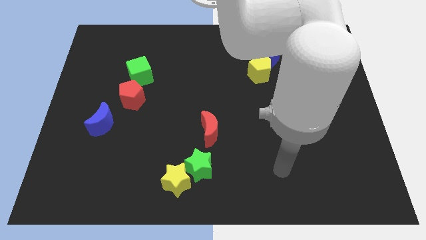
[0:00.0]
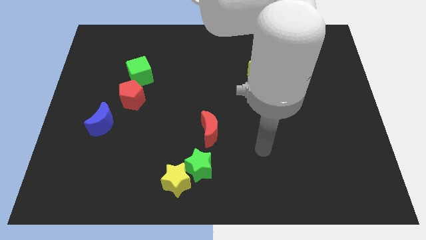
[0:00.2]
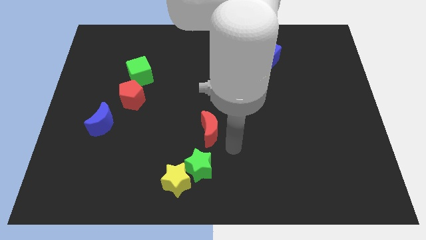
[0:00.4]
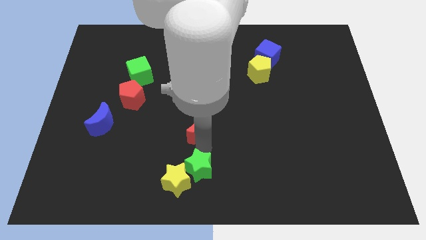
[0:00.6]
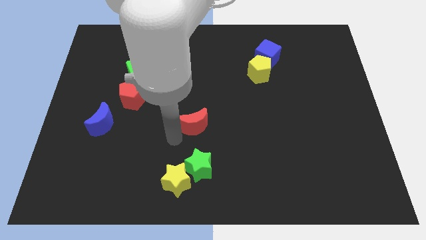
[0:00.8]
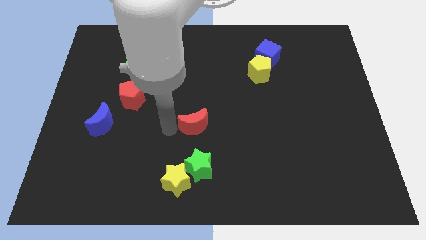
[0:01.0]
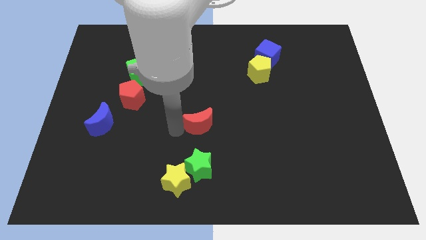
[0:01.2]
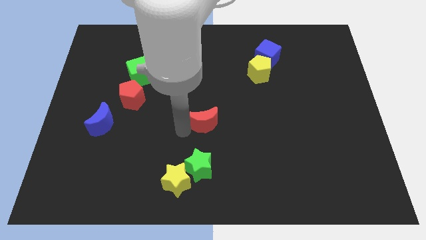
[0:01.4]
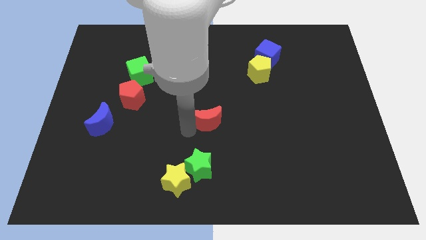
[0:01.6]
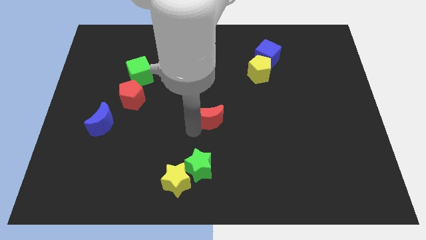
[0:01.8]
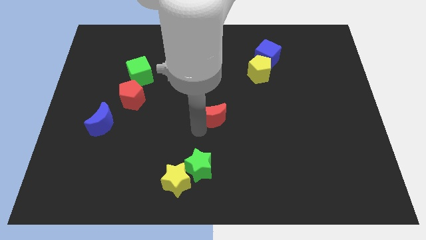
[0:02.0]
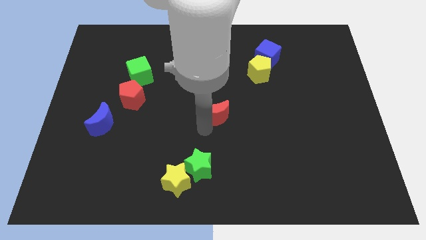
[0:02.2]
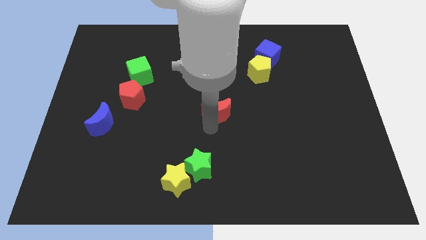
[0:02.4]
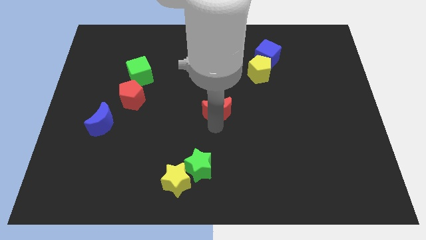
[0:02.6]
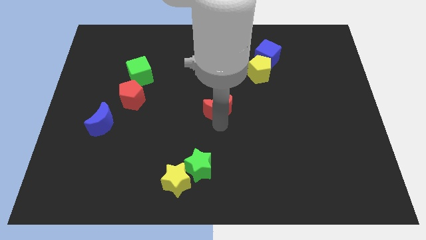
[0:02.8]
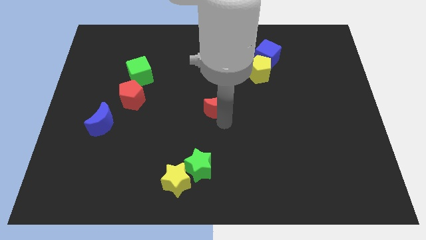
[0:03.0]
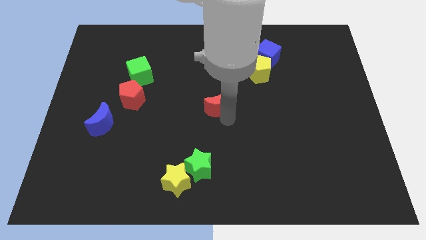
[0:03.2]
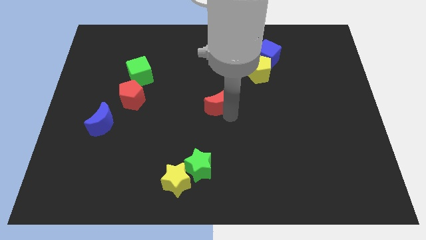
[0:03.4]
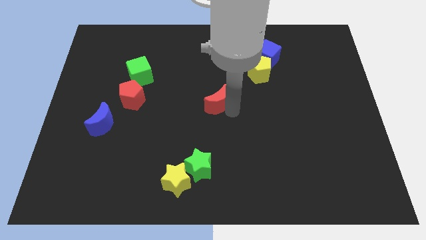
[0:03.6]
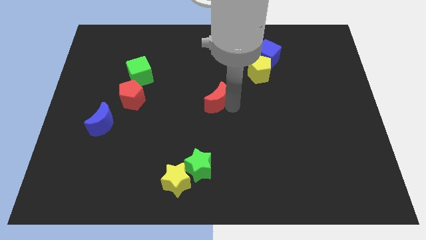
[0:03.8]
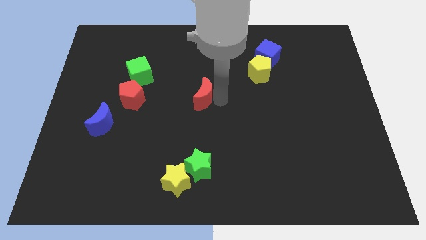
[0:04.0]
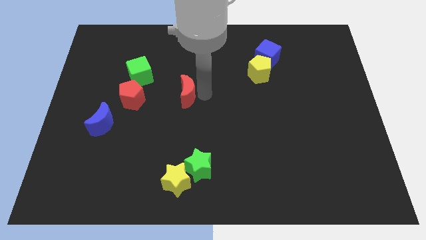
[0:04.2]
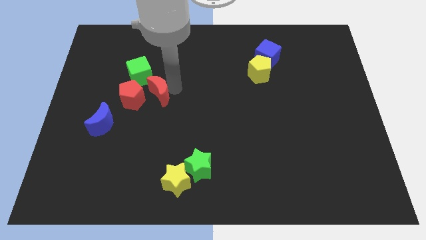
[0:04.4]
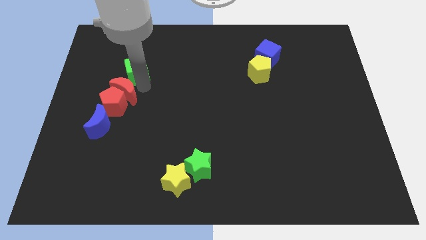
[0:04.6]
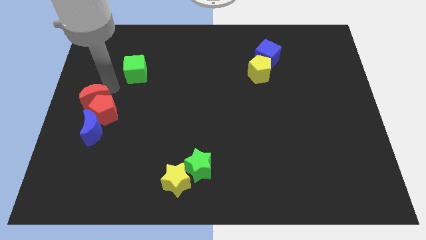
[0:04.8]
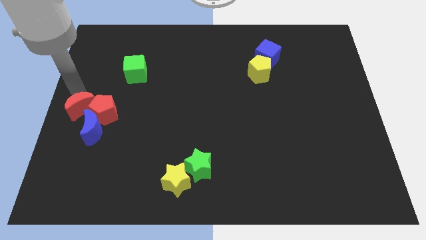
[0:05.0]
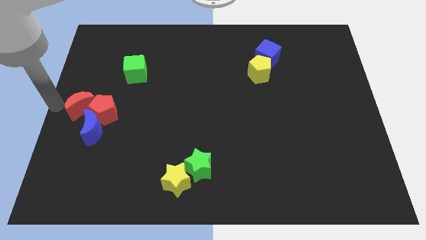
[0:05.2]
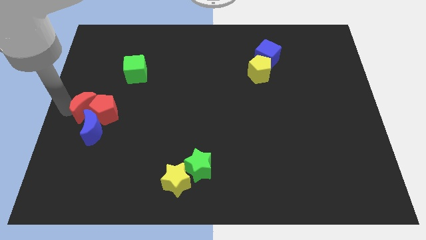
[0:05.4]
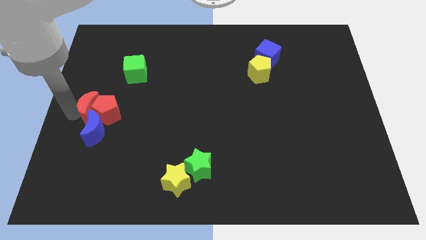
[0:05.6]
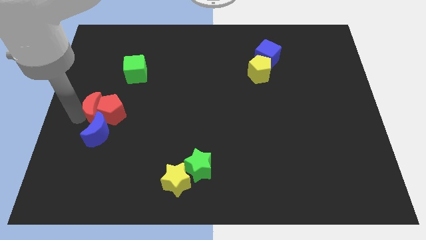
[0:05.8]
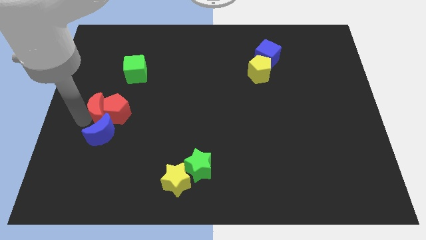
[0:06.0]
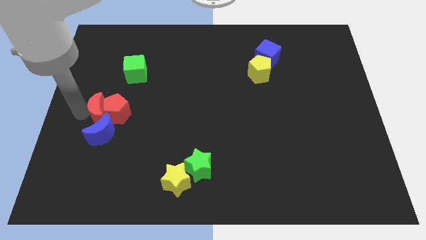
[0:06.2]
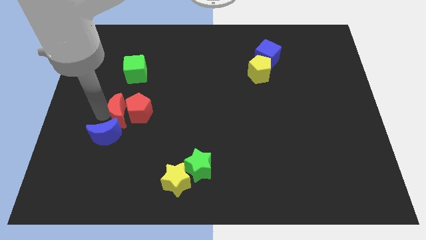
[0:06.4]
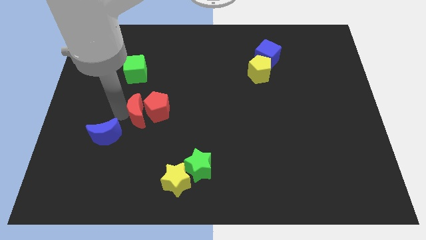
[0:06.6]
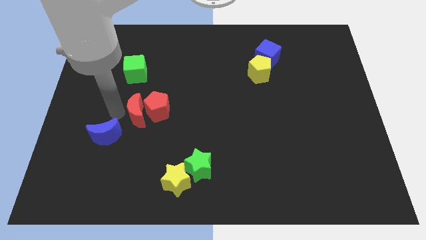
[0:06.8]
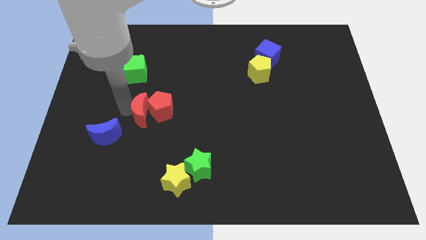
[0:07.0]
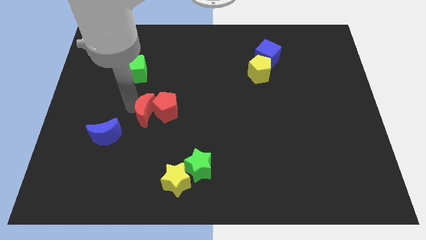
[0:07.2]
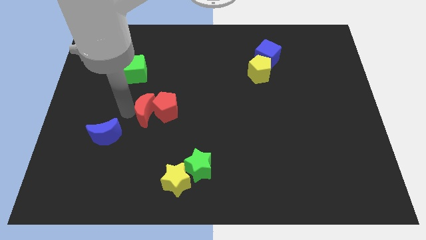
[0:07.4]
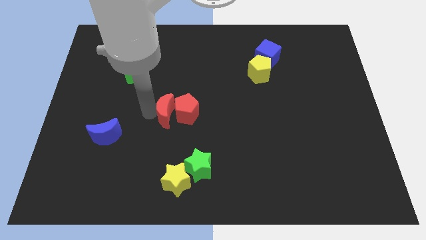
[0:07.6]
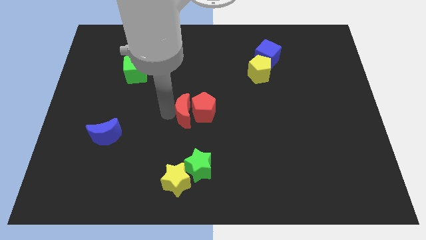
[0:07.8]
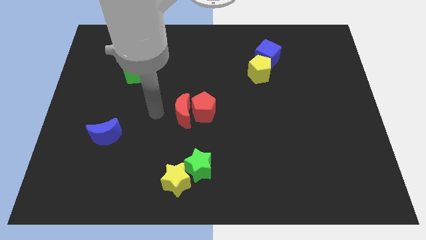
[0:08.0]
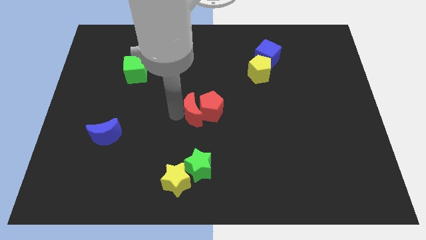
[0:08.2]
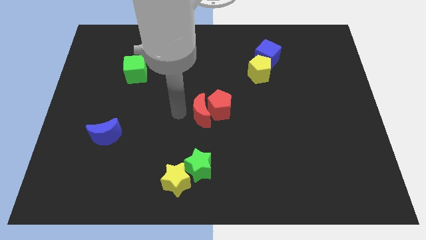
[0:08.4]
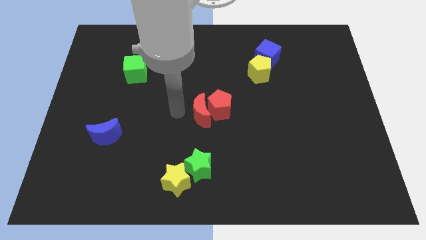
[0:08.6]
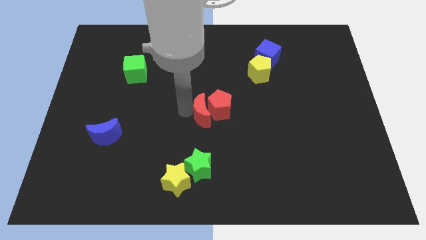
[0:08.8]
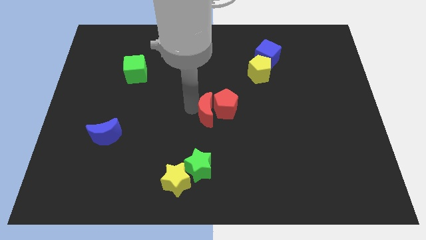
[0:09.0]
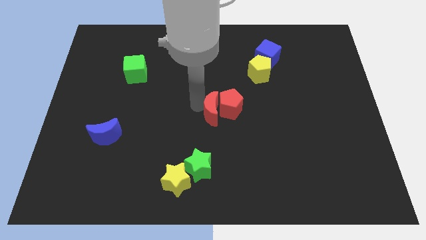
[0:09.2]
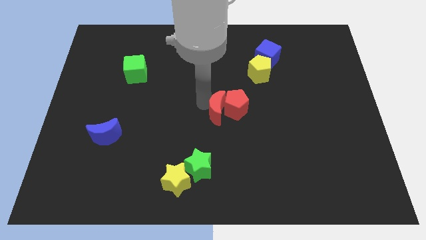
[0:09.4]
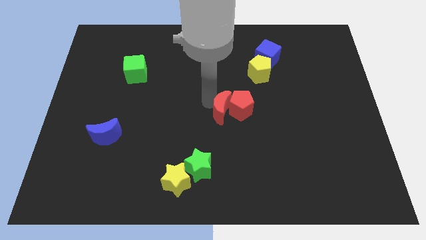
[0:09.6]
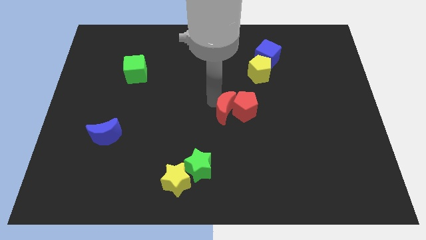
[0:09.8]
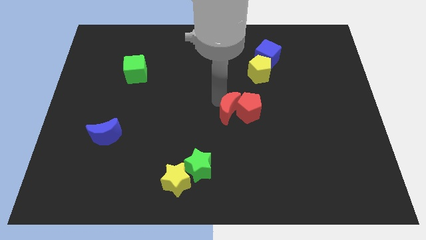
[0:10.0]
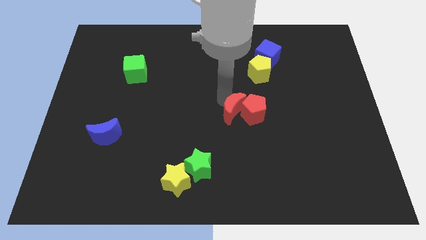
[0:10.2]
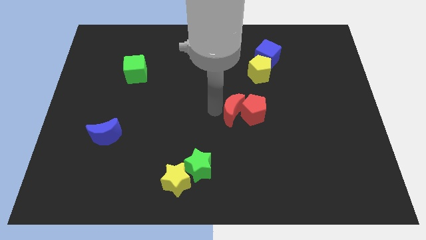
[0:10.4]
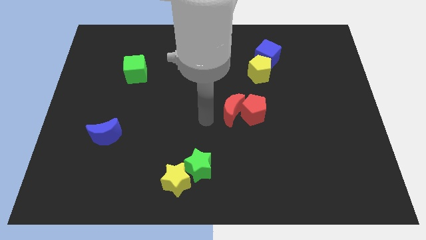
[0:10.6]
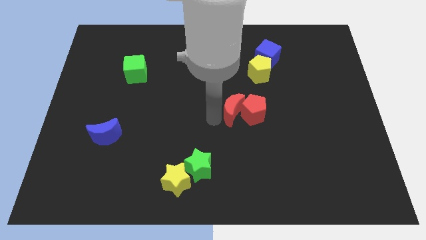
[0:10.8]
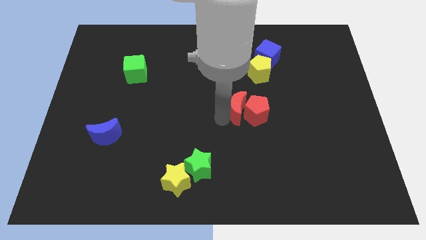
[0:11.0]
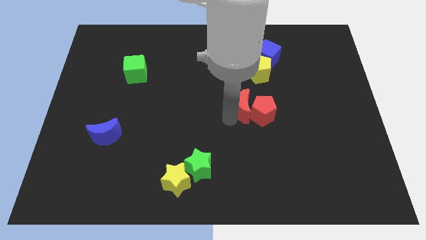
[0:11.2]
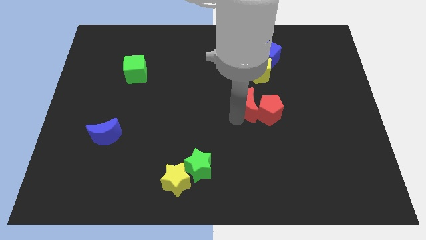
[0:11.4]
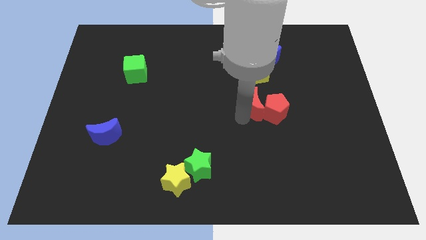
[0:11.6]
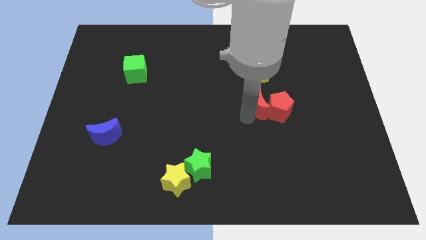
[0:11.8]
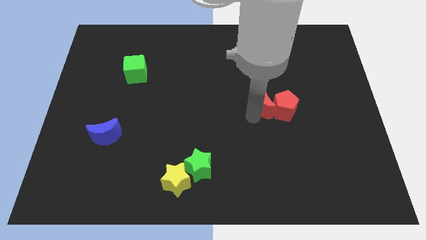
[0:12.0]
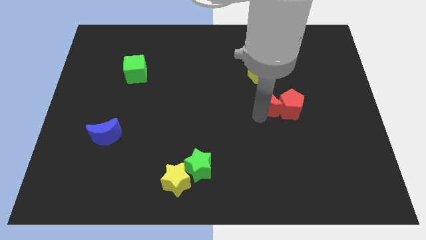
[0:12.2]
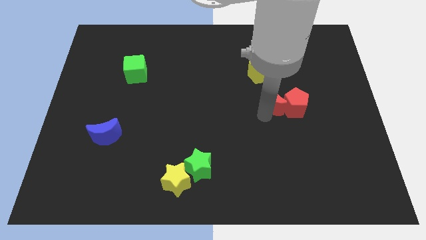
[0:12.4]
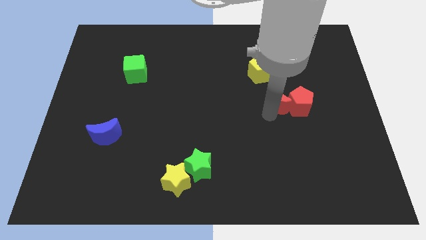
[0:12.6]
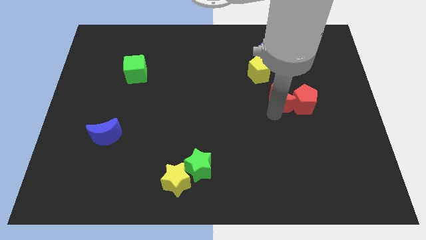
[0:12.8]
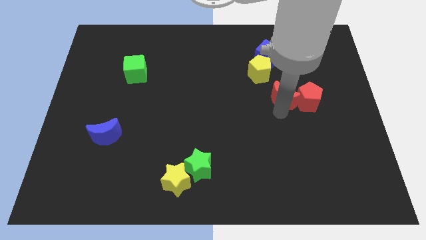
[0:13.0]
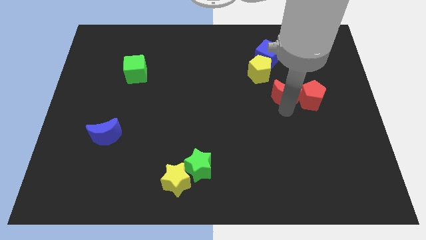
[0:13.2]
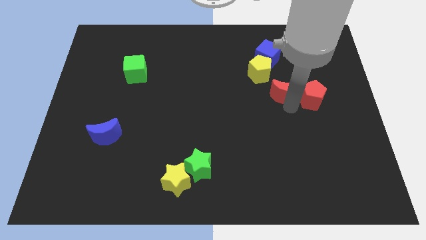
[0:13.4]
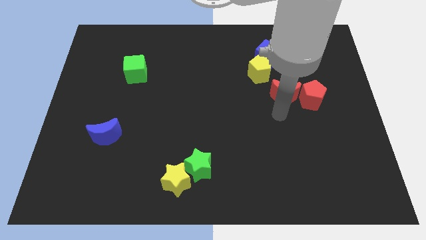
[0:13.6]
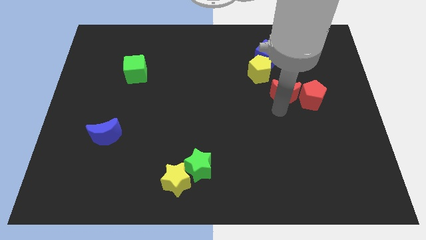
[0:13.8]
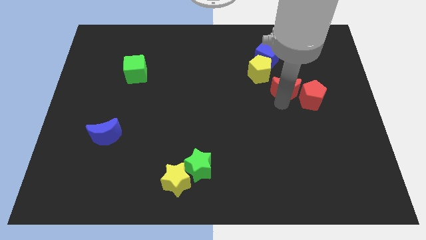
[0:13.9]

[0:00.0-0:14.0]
move the red moon up and then right

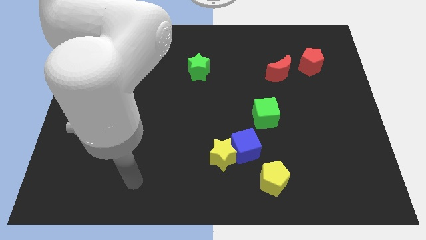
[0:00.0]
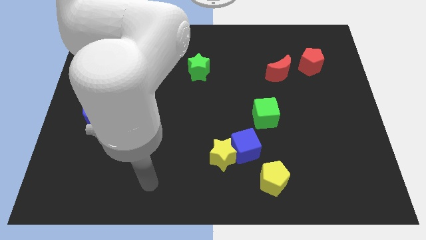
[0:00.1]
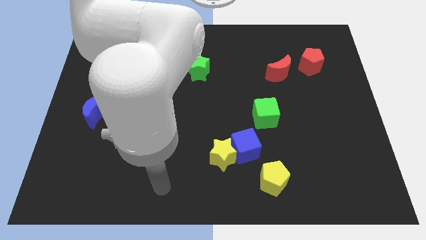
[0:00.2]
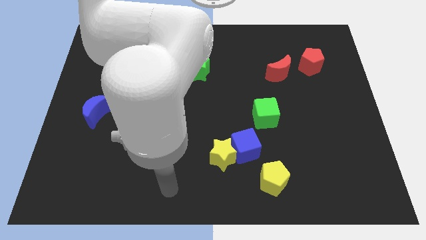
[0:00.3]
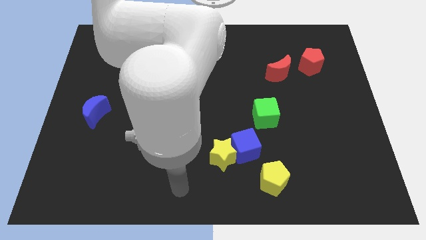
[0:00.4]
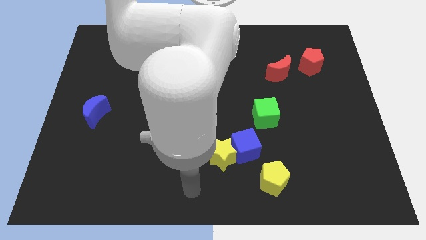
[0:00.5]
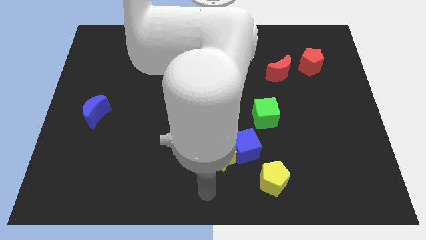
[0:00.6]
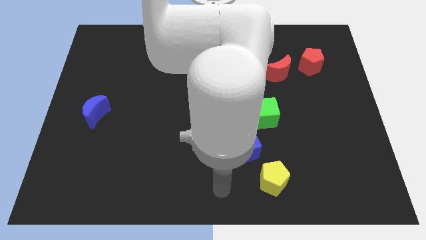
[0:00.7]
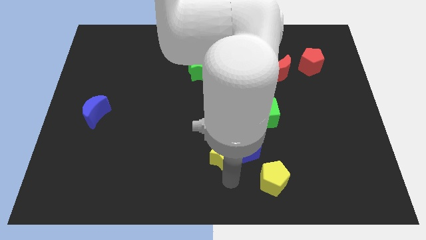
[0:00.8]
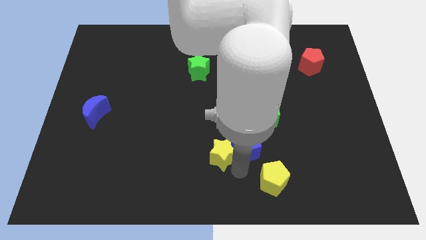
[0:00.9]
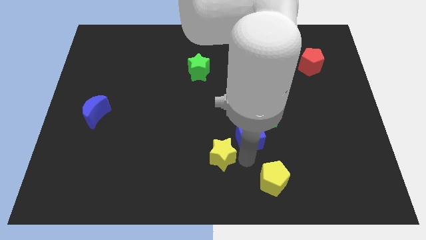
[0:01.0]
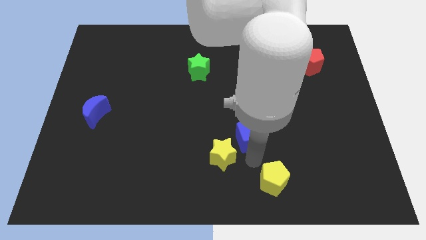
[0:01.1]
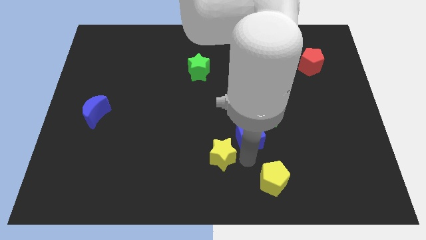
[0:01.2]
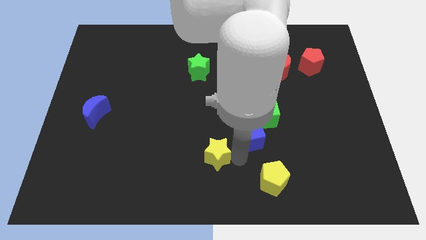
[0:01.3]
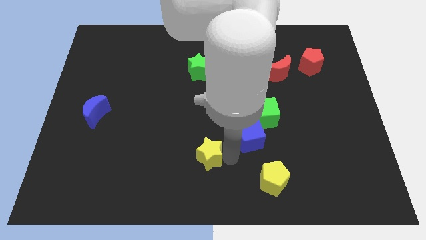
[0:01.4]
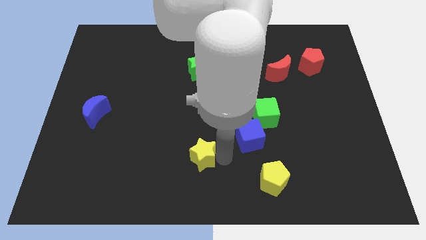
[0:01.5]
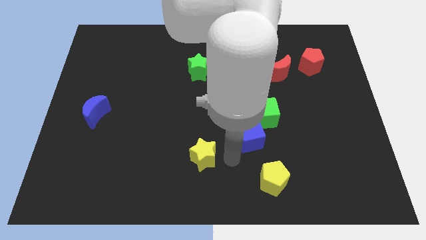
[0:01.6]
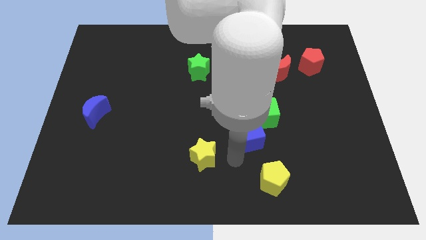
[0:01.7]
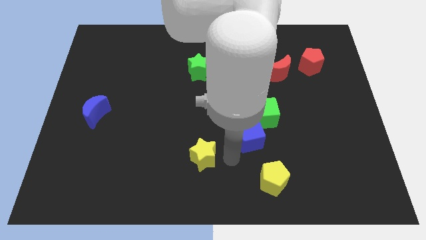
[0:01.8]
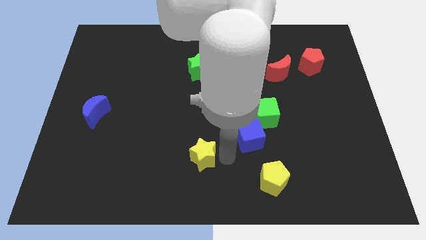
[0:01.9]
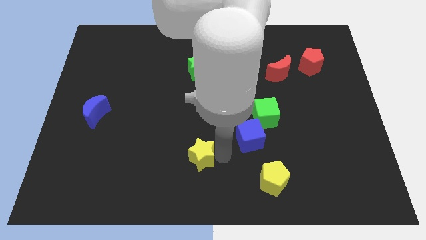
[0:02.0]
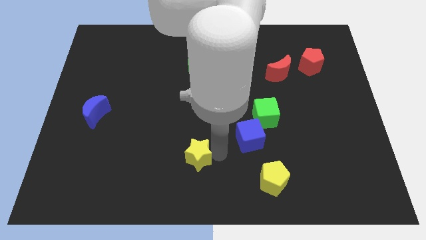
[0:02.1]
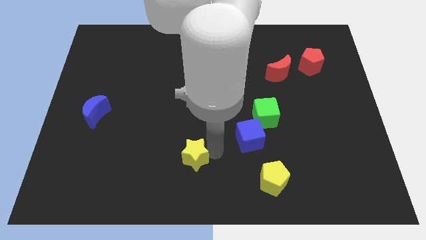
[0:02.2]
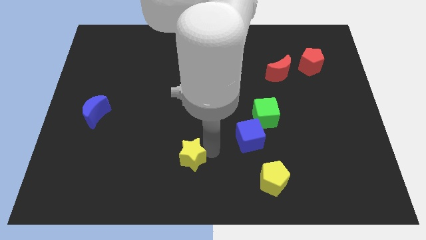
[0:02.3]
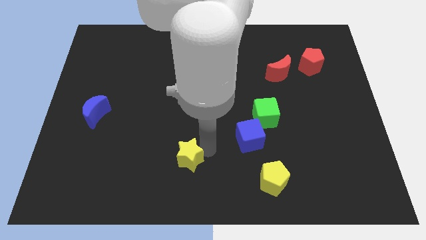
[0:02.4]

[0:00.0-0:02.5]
slightly move the yellow star left
